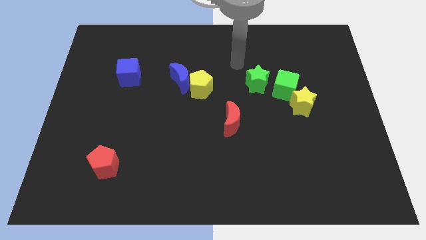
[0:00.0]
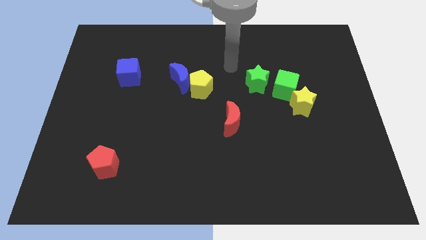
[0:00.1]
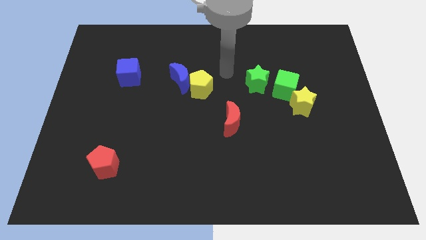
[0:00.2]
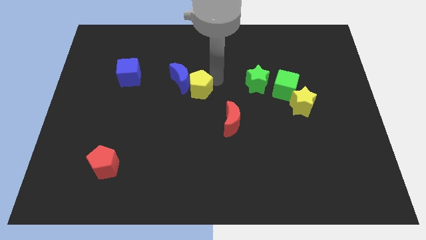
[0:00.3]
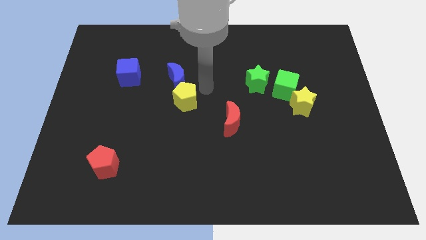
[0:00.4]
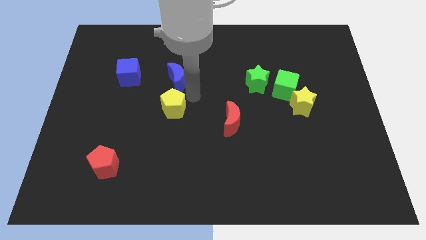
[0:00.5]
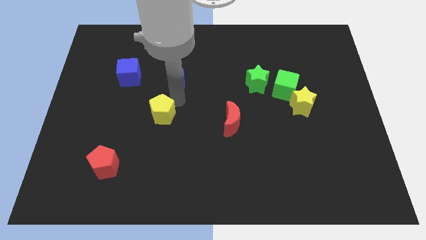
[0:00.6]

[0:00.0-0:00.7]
separate the blue moon from the yellow pentagon

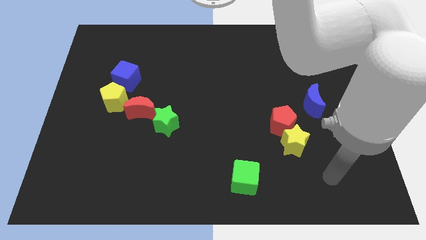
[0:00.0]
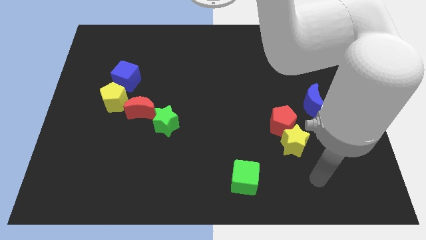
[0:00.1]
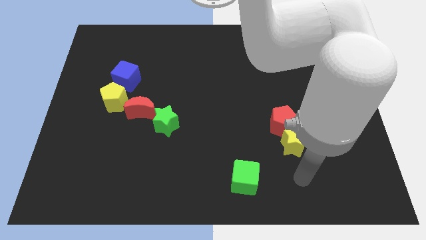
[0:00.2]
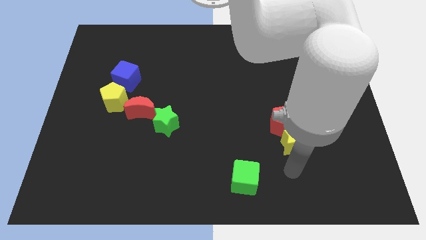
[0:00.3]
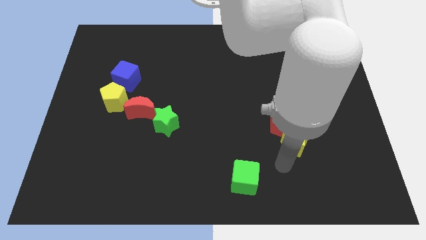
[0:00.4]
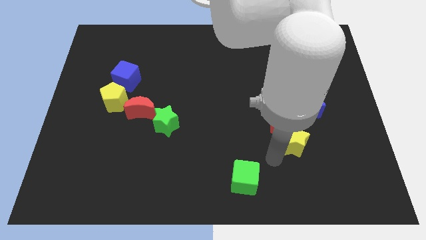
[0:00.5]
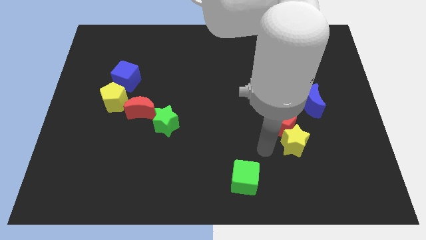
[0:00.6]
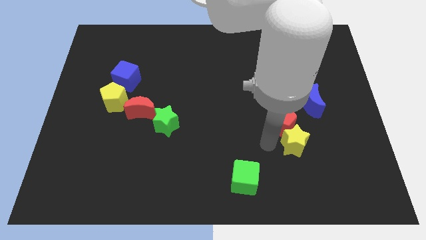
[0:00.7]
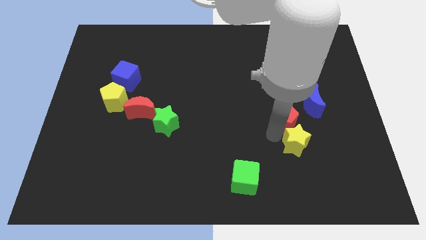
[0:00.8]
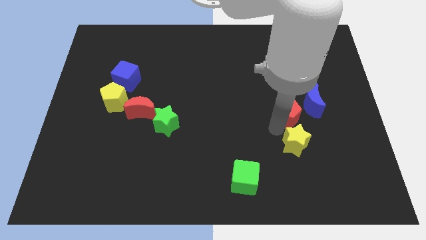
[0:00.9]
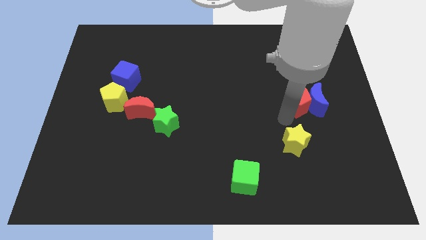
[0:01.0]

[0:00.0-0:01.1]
pull the yellow star apart from the red pentagon

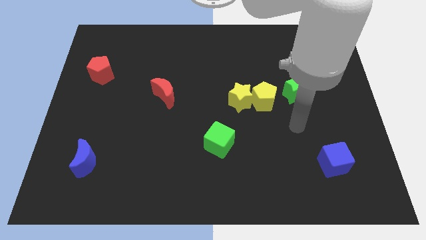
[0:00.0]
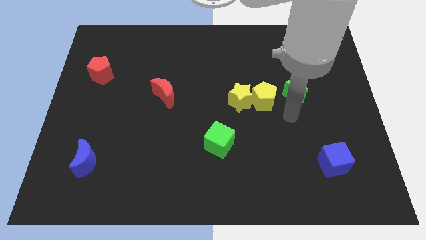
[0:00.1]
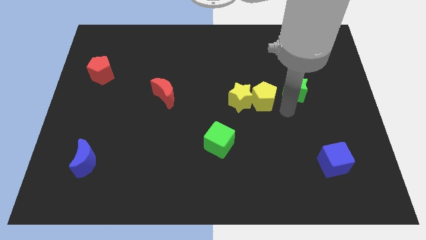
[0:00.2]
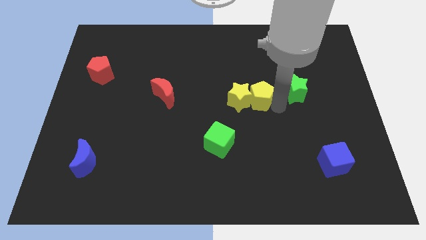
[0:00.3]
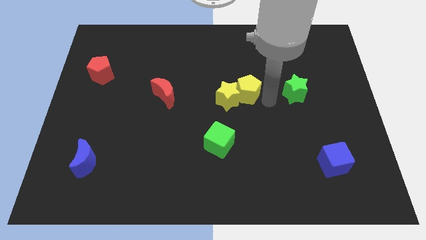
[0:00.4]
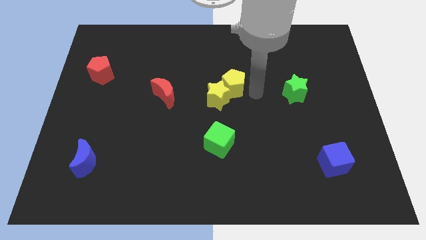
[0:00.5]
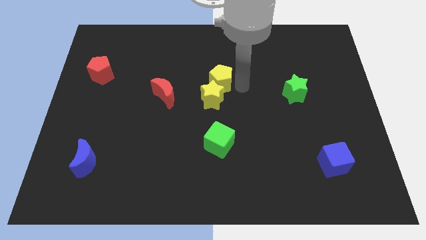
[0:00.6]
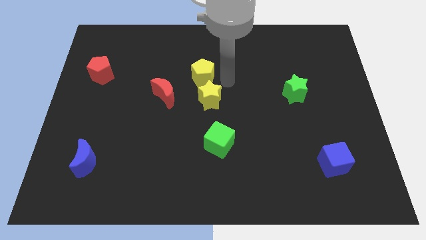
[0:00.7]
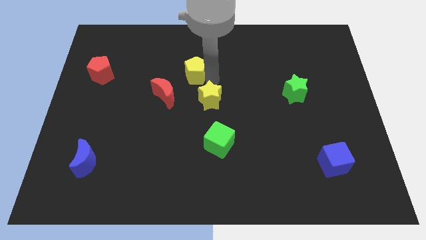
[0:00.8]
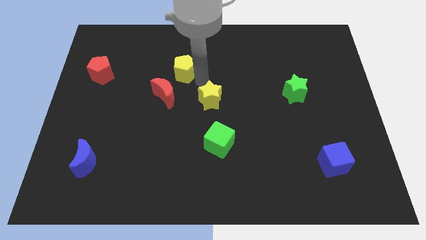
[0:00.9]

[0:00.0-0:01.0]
pull the yellow star apart from the yellow pentagon

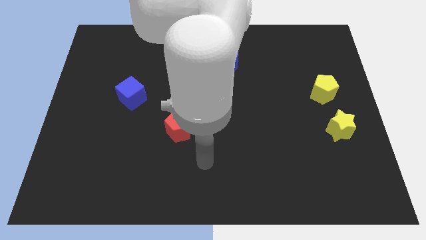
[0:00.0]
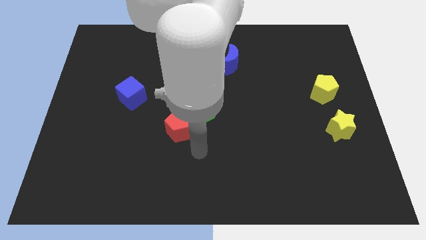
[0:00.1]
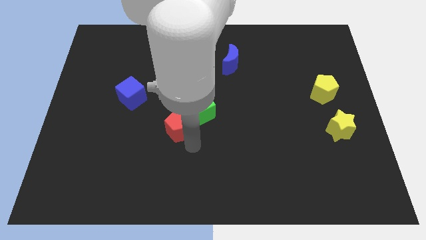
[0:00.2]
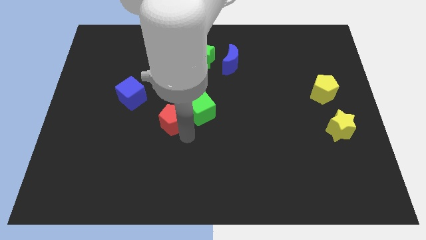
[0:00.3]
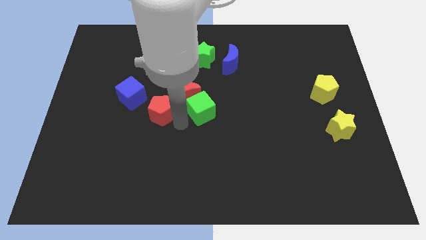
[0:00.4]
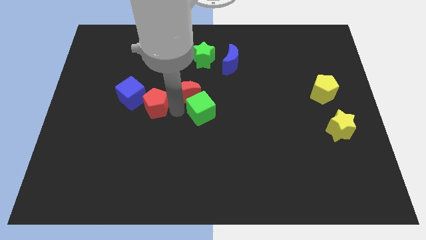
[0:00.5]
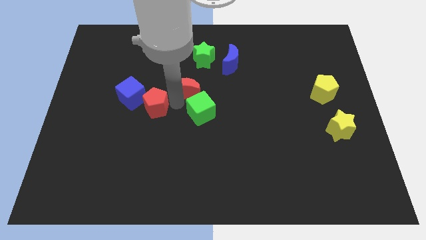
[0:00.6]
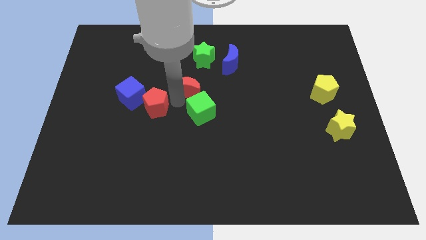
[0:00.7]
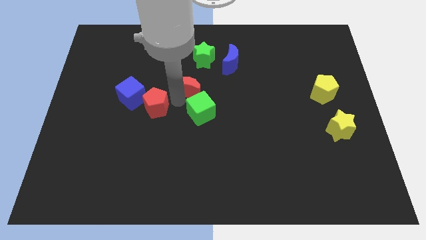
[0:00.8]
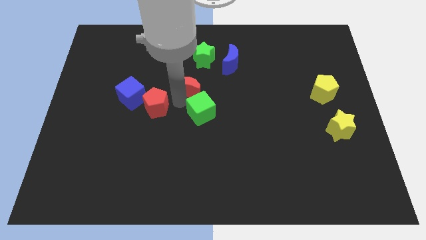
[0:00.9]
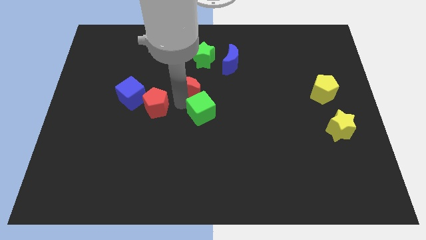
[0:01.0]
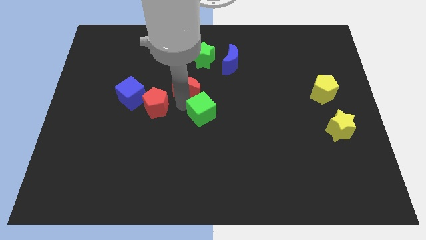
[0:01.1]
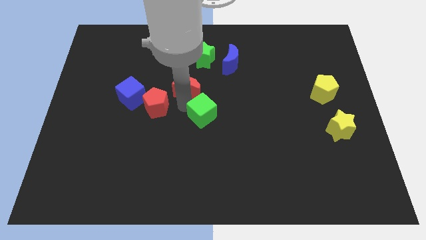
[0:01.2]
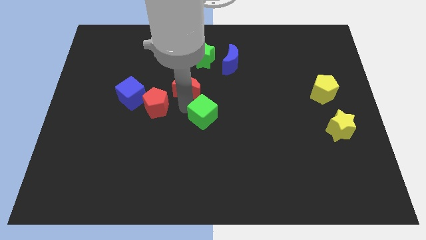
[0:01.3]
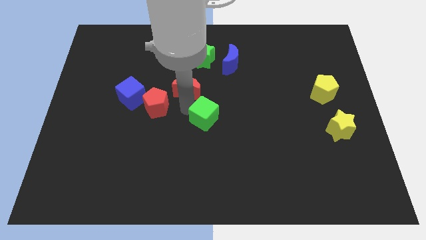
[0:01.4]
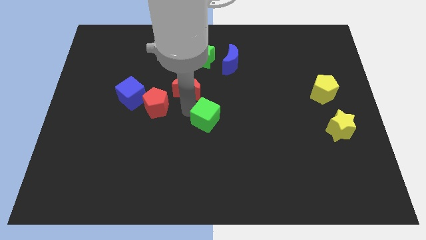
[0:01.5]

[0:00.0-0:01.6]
pull the green cube apart from the red moon and red pentagon

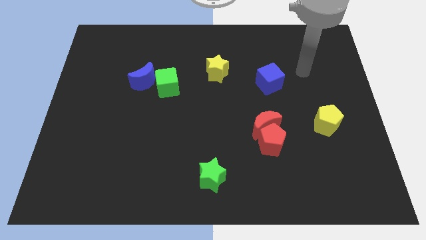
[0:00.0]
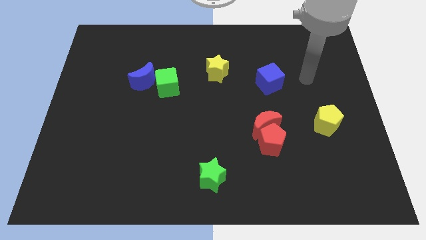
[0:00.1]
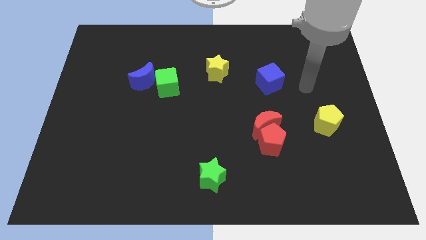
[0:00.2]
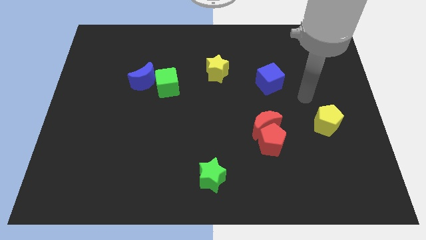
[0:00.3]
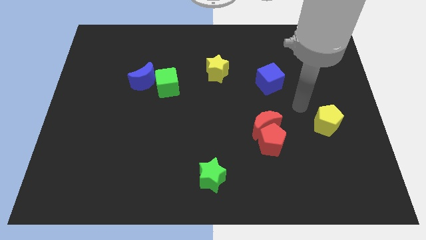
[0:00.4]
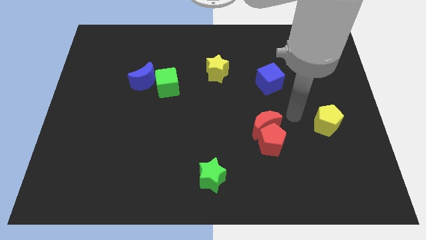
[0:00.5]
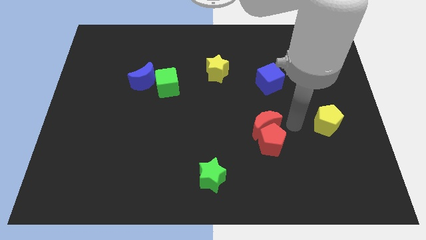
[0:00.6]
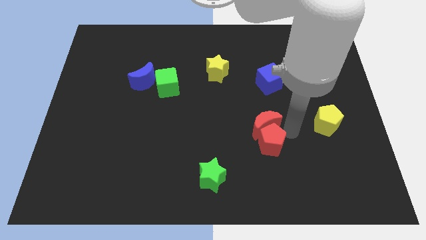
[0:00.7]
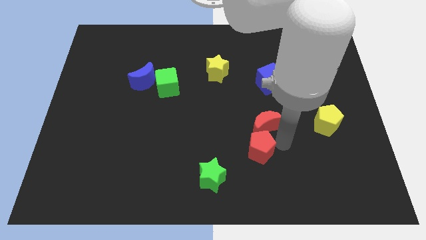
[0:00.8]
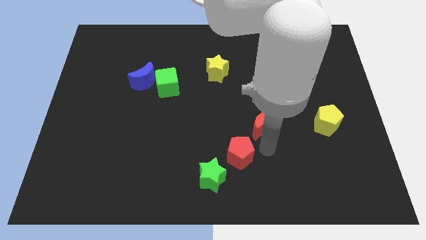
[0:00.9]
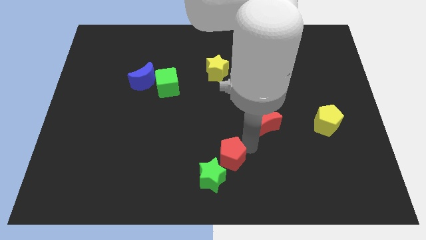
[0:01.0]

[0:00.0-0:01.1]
pull the red moon apart from the red pentagon

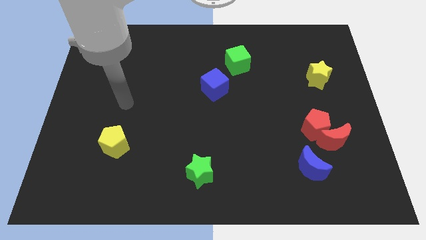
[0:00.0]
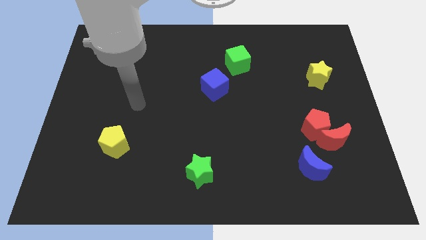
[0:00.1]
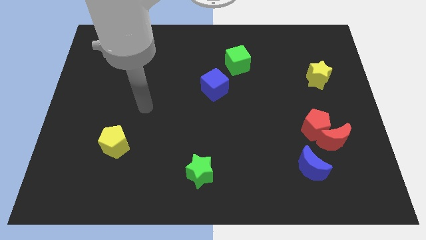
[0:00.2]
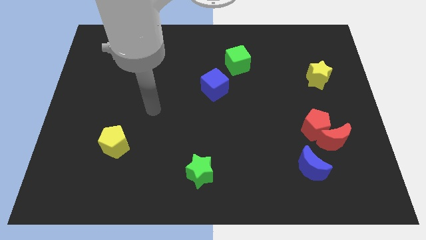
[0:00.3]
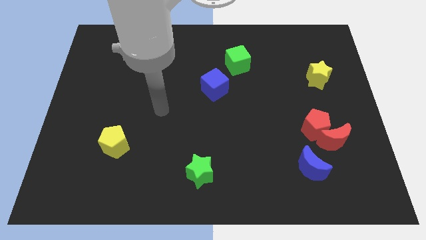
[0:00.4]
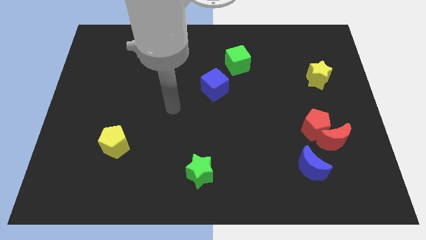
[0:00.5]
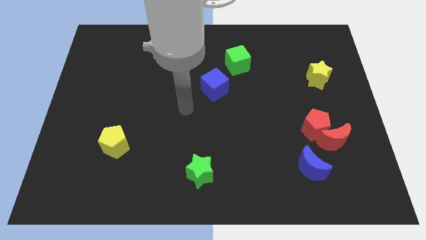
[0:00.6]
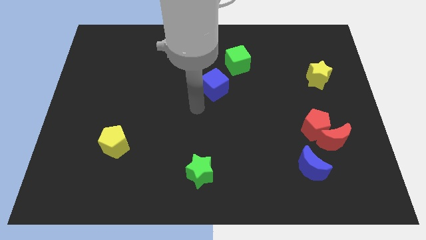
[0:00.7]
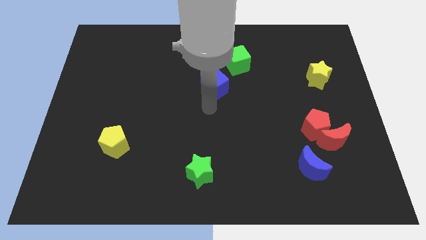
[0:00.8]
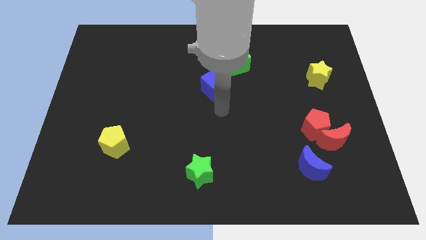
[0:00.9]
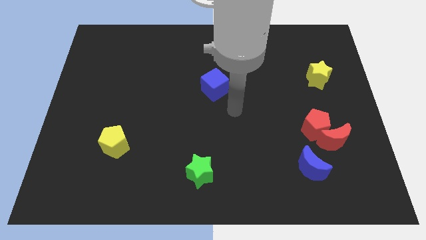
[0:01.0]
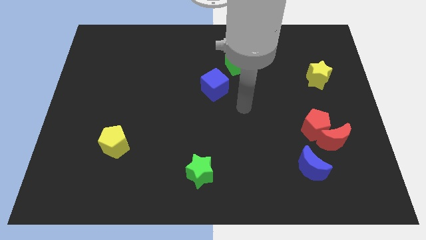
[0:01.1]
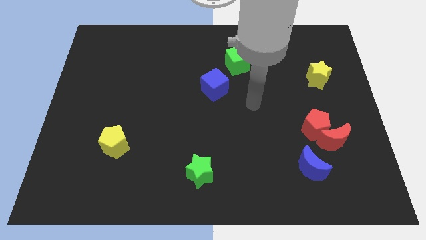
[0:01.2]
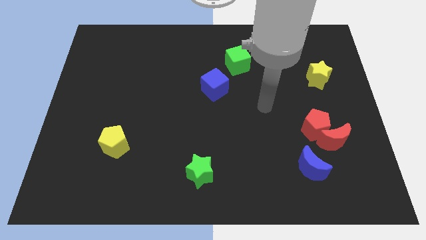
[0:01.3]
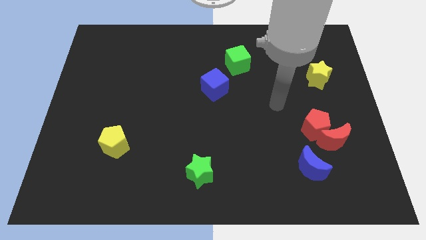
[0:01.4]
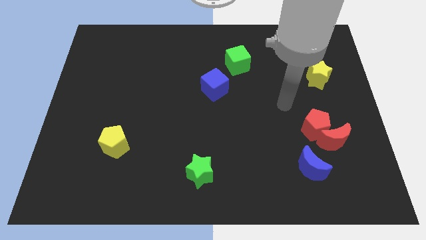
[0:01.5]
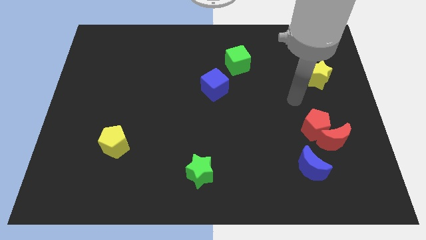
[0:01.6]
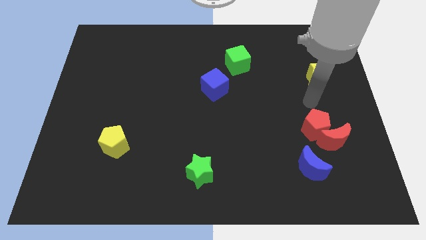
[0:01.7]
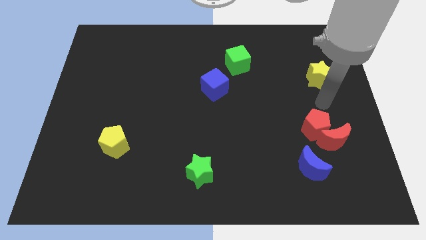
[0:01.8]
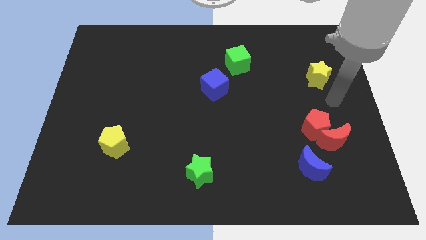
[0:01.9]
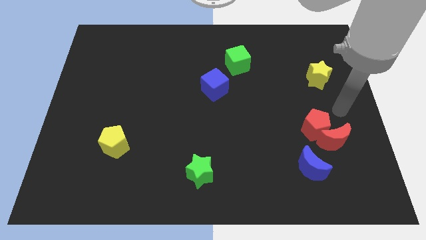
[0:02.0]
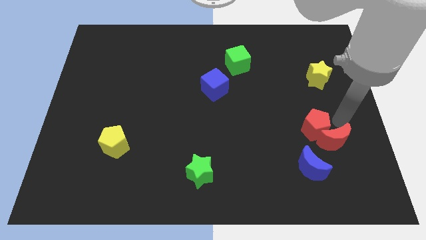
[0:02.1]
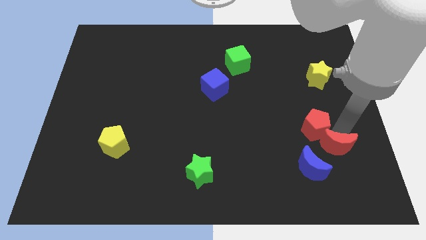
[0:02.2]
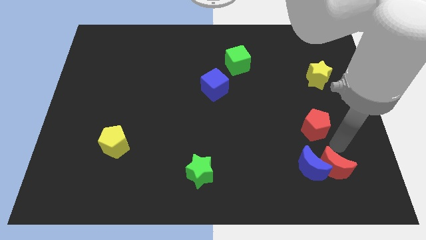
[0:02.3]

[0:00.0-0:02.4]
separate the red pentagon from the red moon

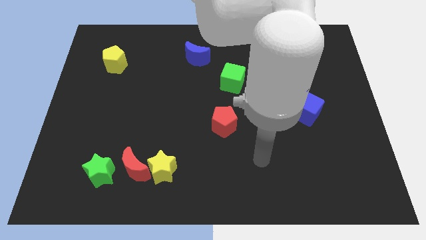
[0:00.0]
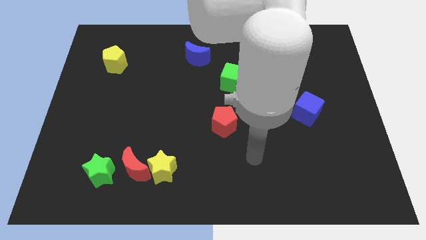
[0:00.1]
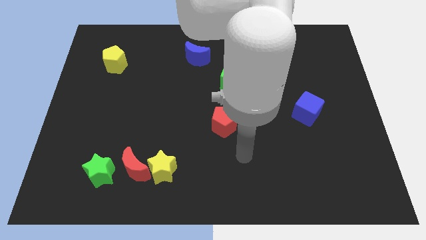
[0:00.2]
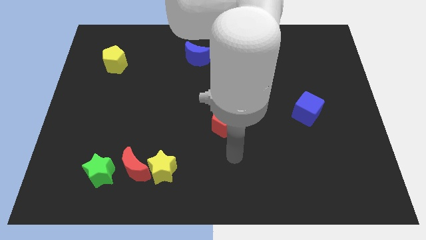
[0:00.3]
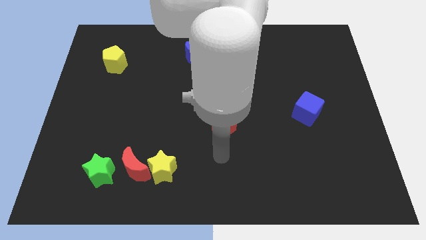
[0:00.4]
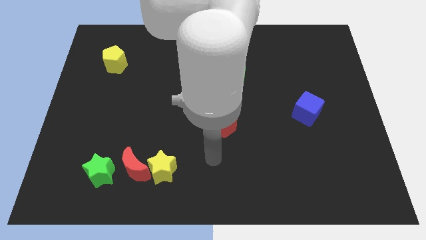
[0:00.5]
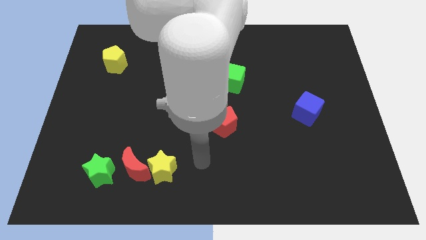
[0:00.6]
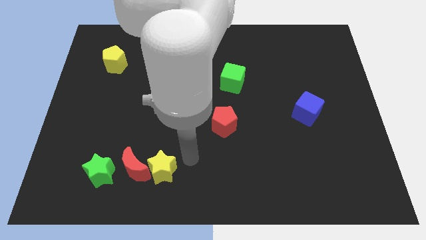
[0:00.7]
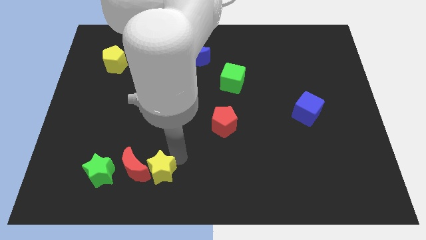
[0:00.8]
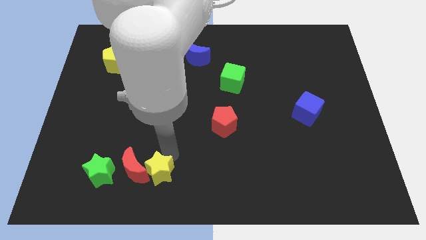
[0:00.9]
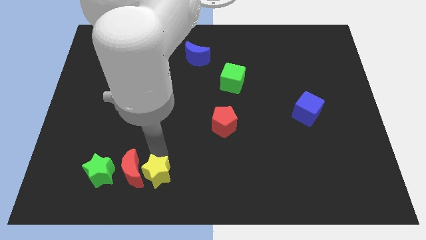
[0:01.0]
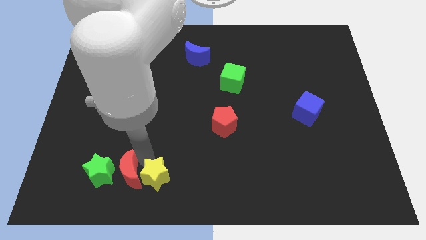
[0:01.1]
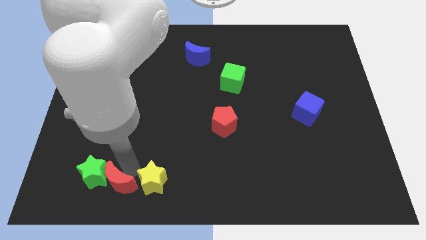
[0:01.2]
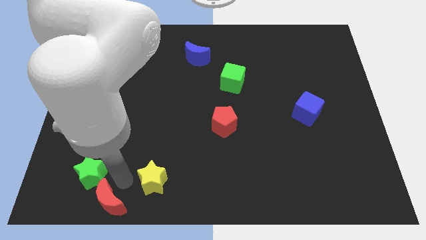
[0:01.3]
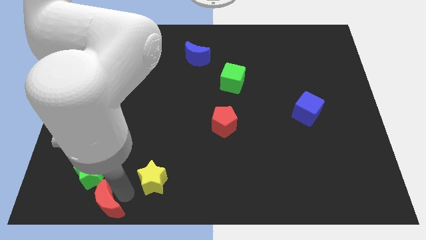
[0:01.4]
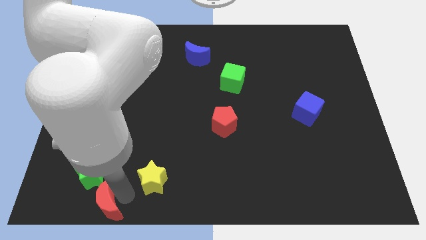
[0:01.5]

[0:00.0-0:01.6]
move the yellow star away from the red moon

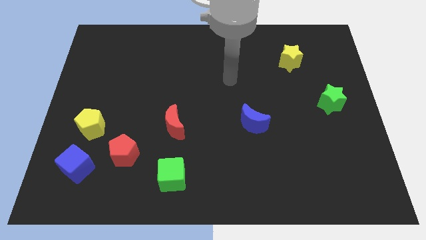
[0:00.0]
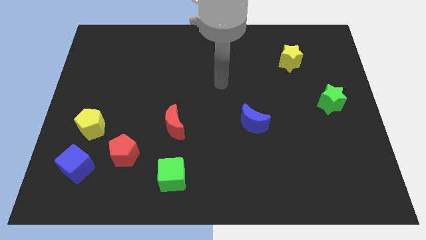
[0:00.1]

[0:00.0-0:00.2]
pull the red pentagon apart from the blue cube
